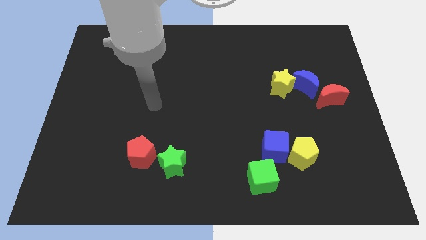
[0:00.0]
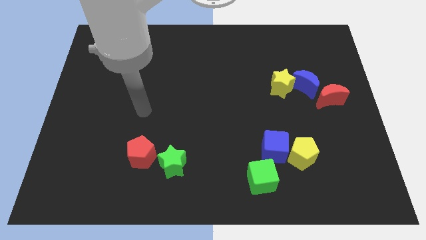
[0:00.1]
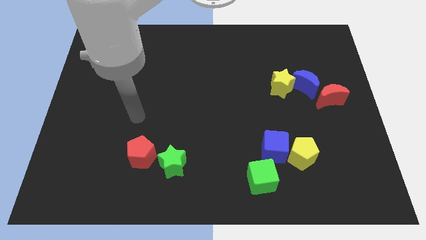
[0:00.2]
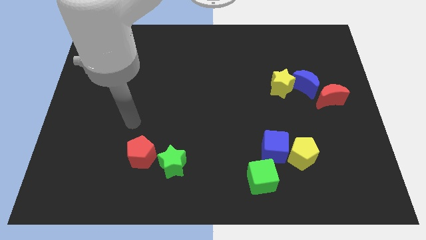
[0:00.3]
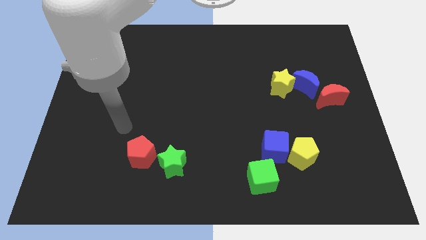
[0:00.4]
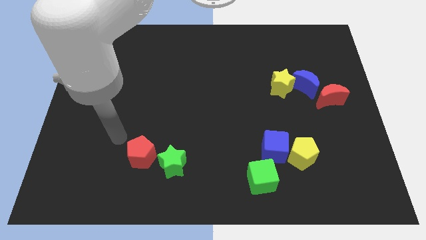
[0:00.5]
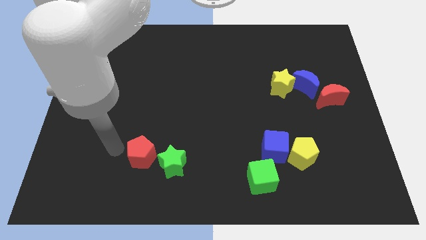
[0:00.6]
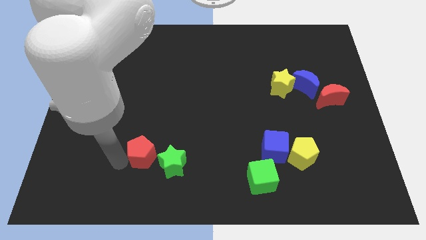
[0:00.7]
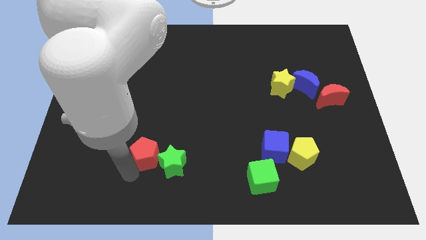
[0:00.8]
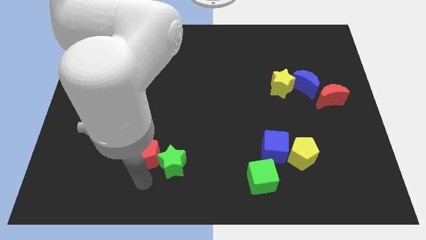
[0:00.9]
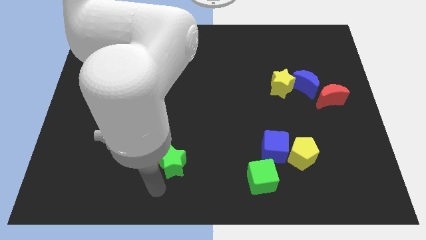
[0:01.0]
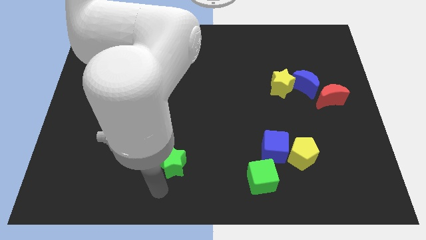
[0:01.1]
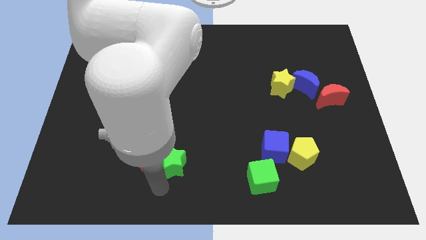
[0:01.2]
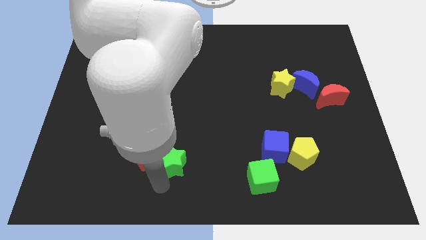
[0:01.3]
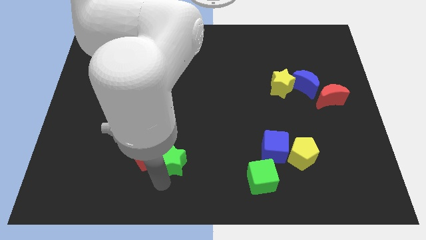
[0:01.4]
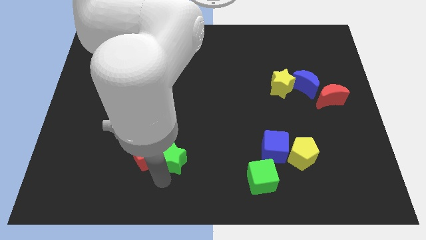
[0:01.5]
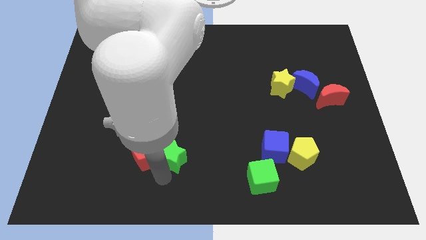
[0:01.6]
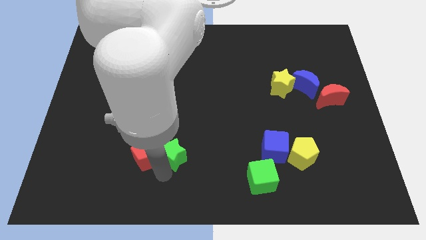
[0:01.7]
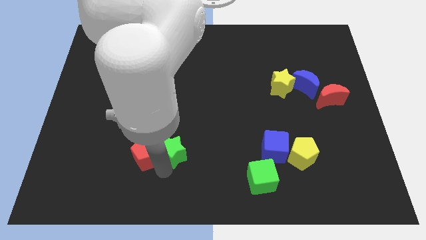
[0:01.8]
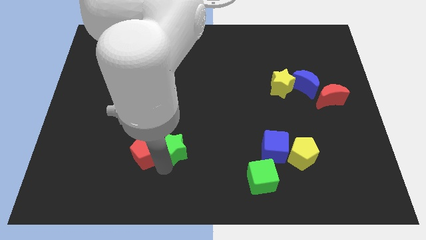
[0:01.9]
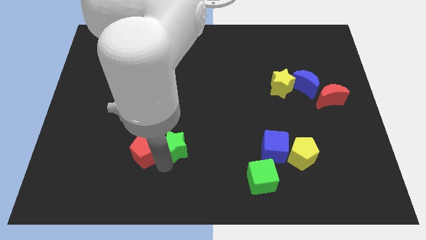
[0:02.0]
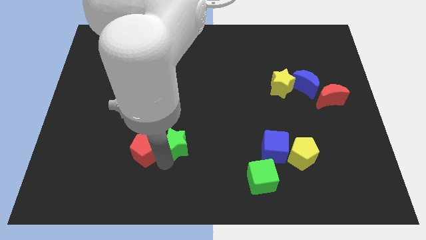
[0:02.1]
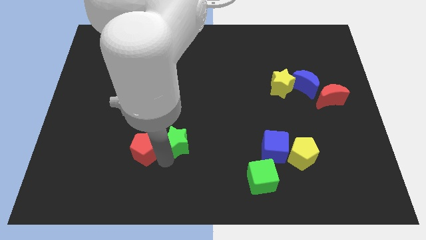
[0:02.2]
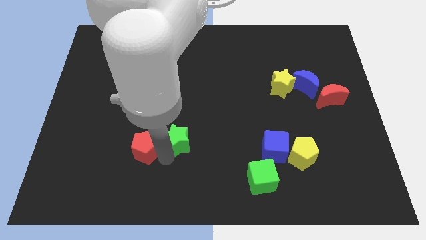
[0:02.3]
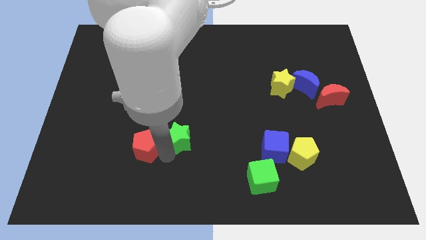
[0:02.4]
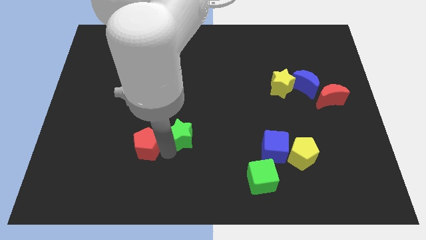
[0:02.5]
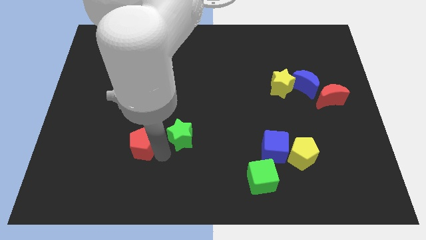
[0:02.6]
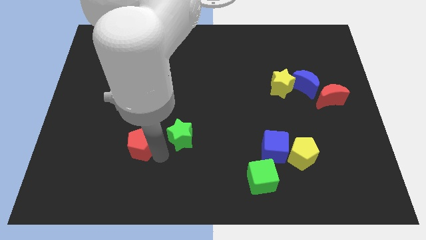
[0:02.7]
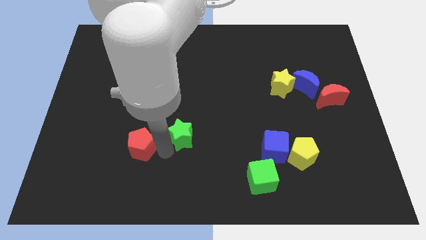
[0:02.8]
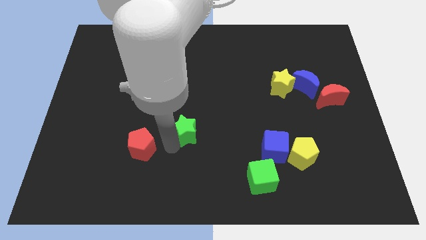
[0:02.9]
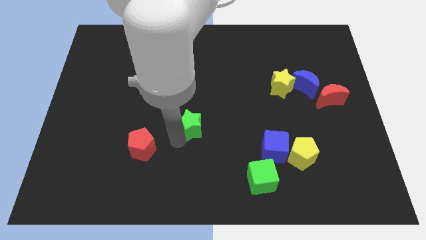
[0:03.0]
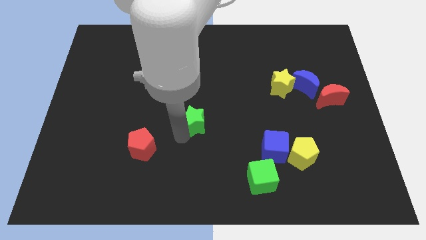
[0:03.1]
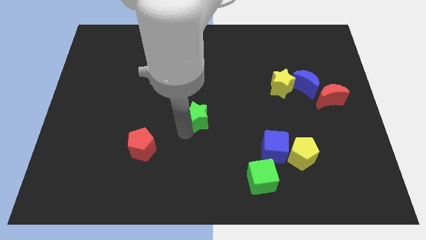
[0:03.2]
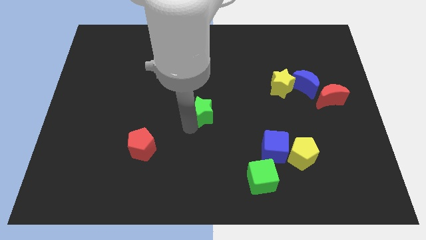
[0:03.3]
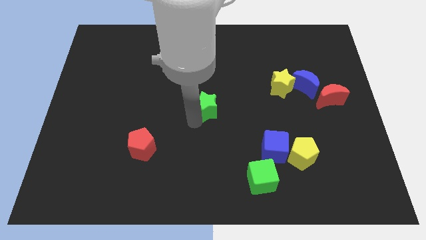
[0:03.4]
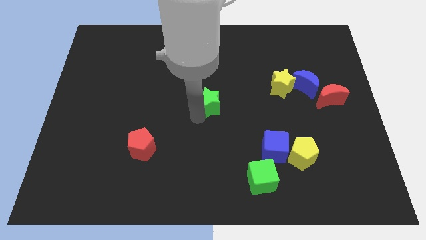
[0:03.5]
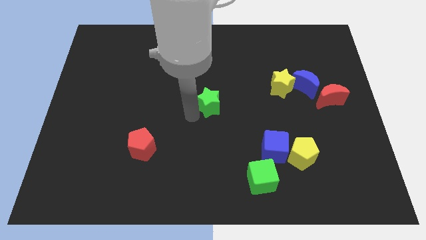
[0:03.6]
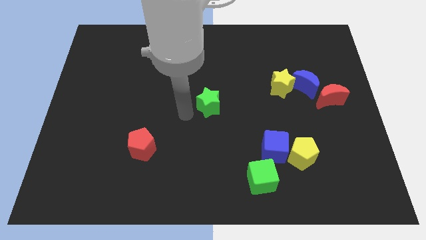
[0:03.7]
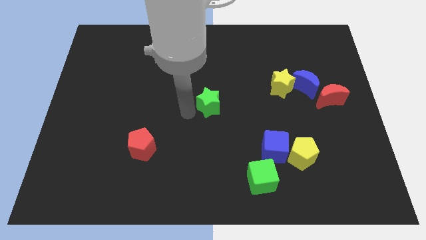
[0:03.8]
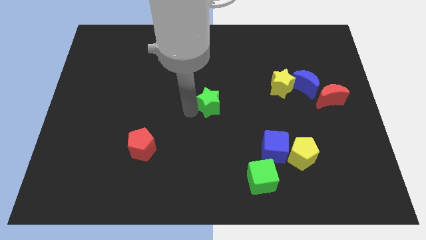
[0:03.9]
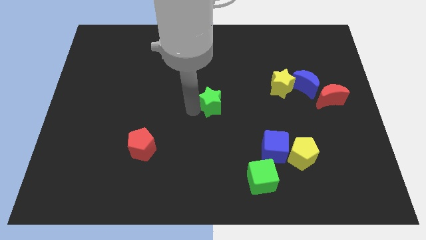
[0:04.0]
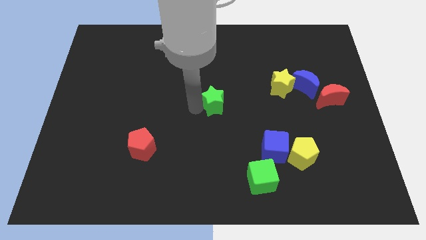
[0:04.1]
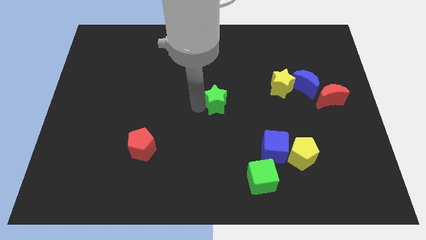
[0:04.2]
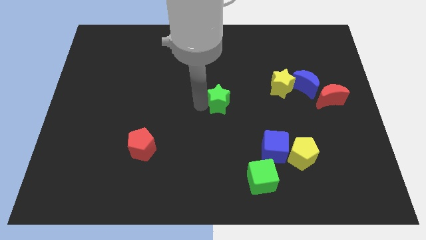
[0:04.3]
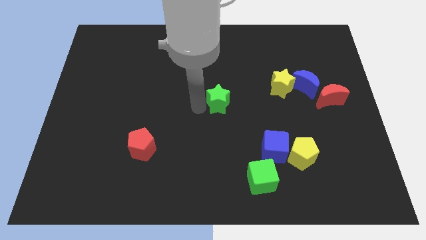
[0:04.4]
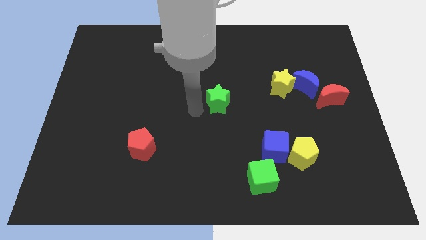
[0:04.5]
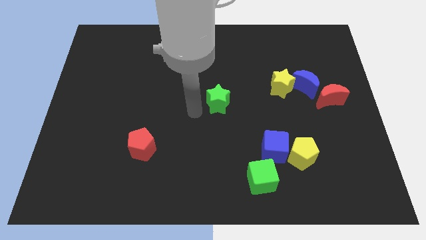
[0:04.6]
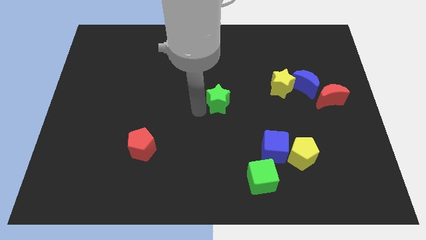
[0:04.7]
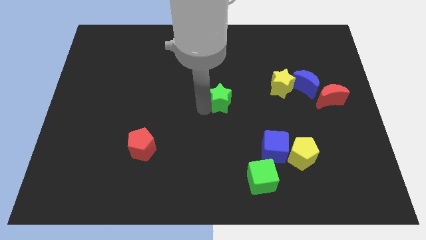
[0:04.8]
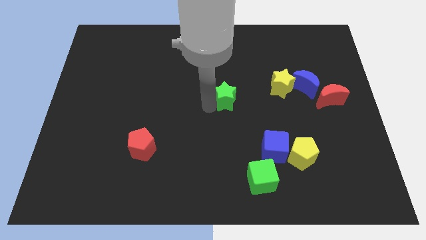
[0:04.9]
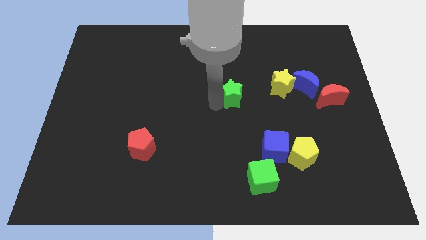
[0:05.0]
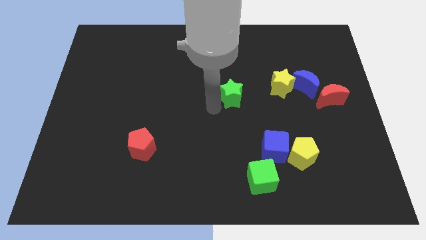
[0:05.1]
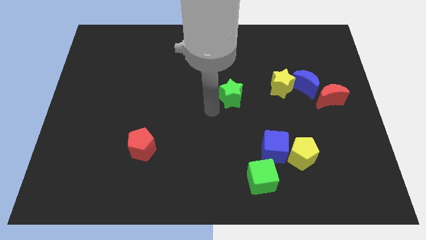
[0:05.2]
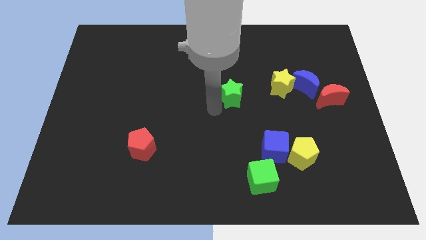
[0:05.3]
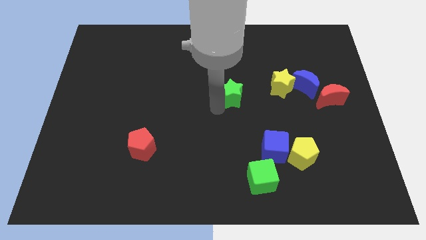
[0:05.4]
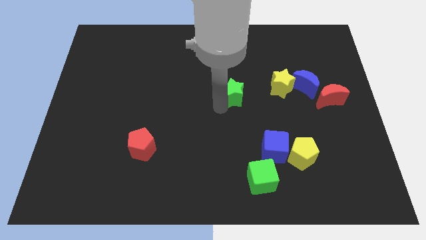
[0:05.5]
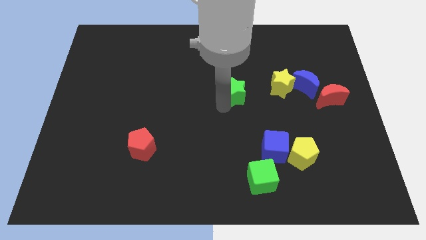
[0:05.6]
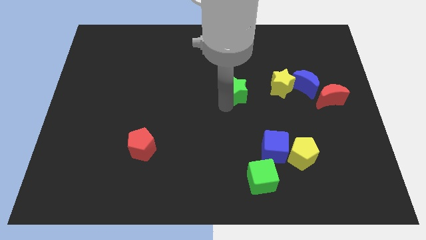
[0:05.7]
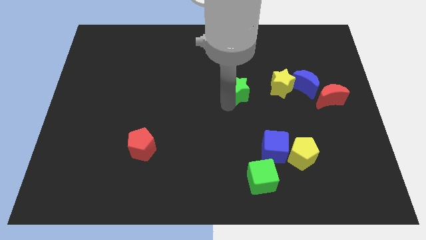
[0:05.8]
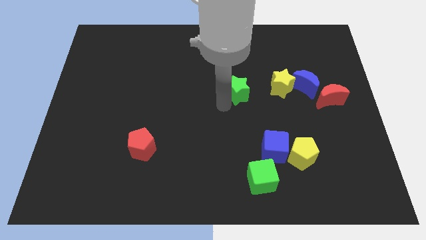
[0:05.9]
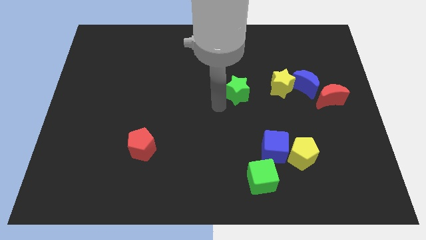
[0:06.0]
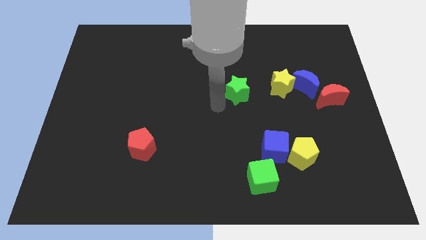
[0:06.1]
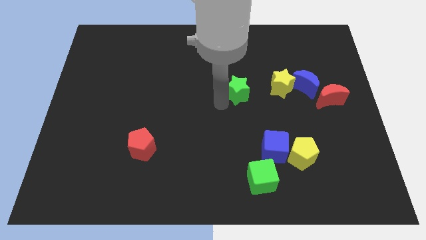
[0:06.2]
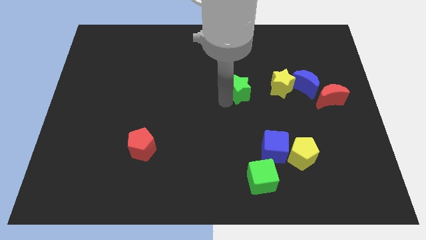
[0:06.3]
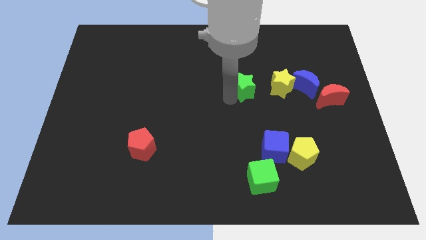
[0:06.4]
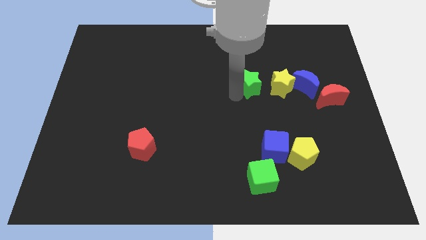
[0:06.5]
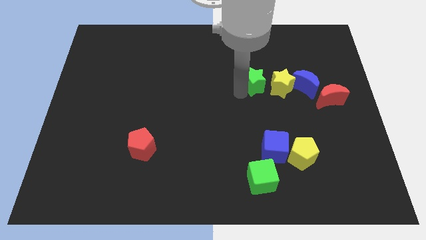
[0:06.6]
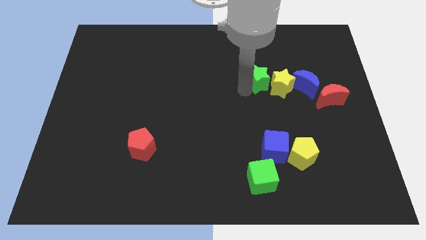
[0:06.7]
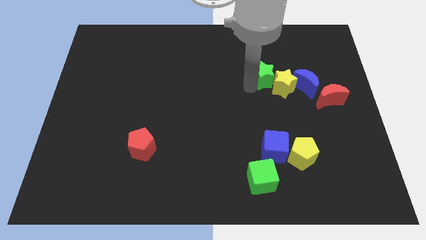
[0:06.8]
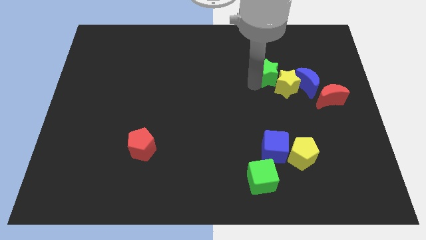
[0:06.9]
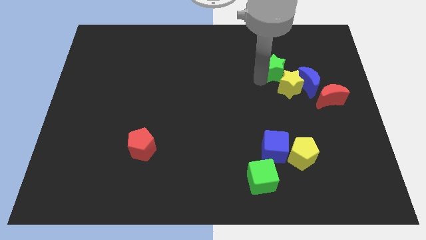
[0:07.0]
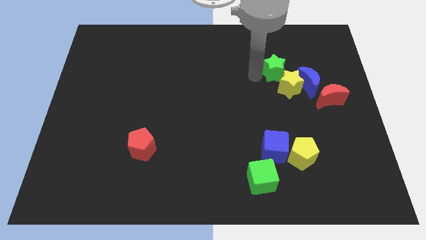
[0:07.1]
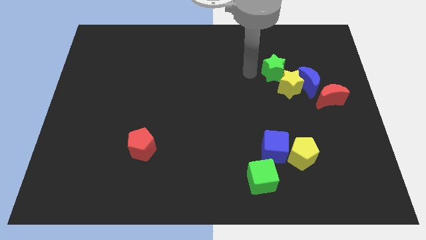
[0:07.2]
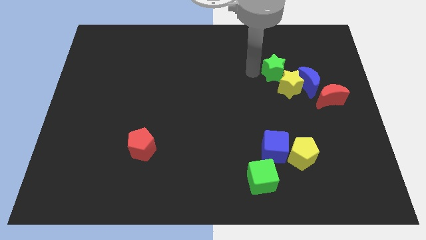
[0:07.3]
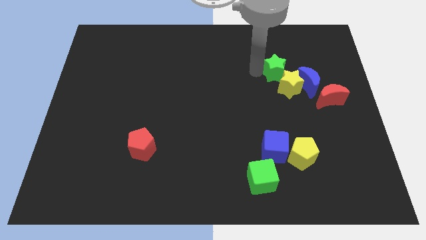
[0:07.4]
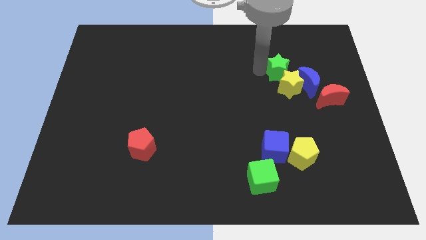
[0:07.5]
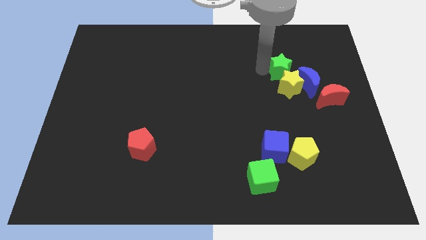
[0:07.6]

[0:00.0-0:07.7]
slide the green star to the top right of the yellow star
